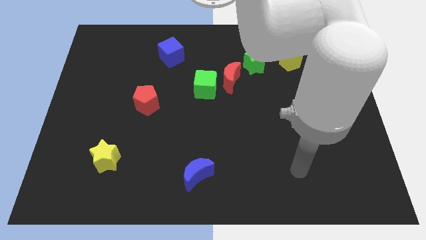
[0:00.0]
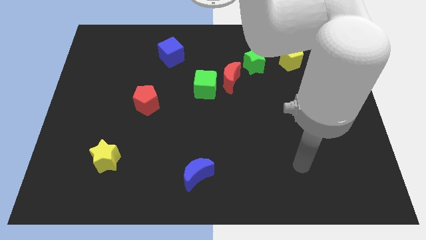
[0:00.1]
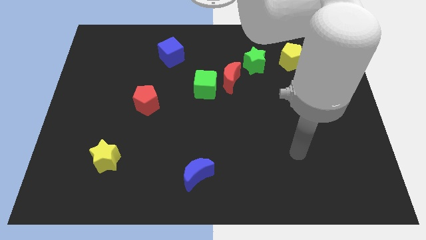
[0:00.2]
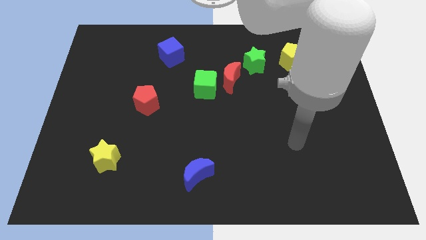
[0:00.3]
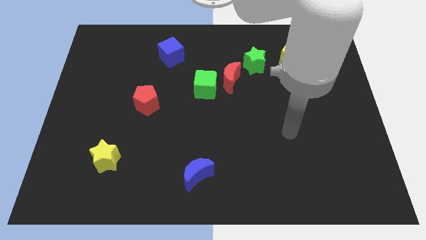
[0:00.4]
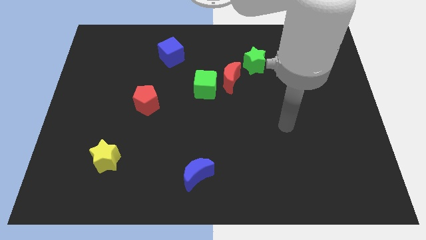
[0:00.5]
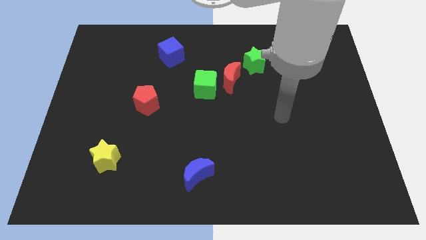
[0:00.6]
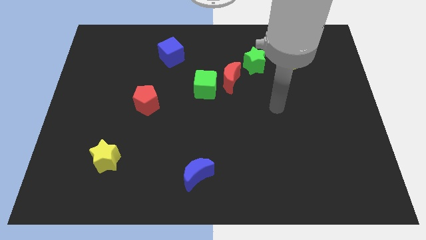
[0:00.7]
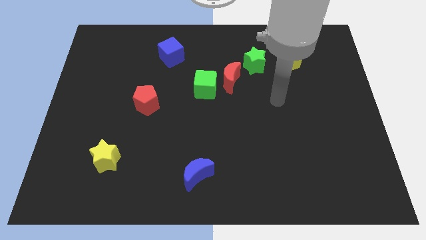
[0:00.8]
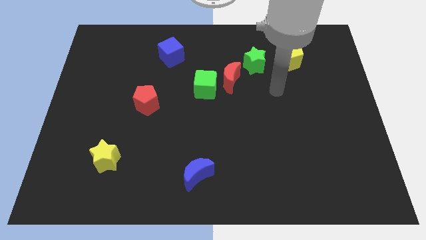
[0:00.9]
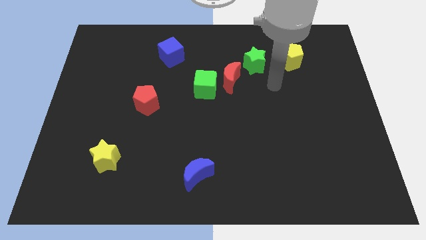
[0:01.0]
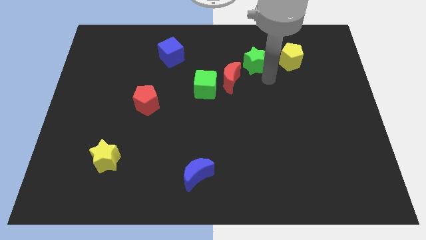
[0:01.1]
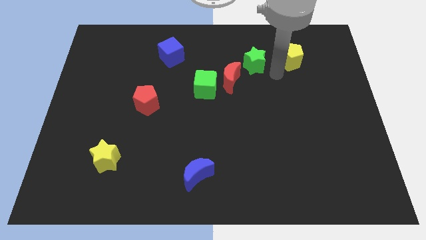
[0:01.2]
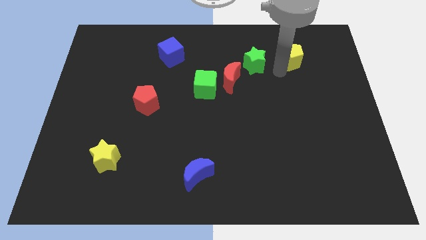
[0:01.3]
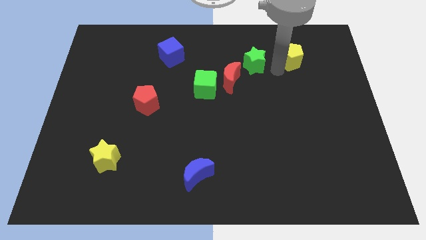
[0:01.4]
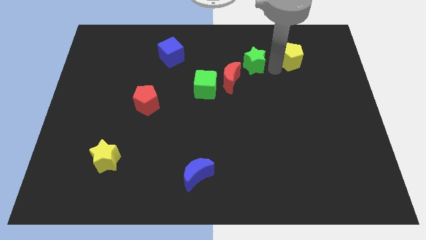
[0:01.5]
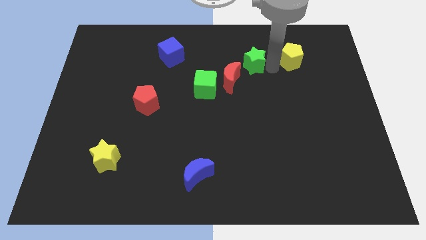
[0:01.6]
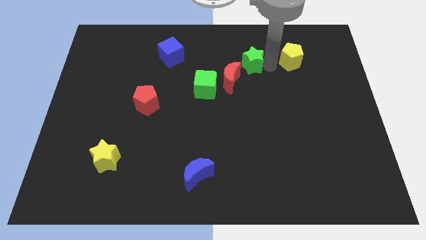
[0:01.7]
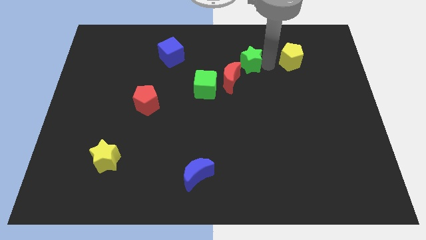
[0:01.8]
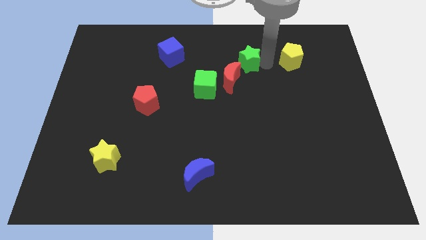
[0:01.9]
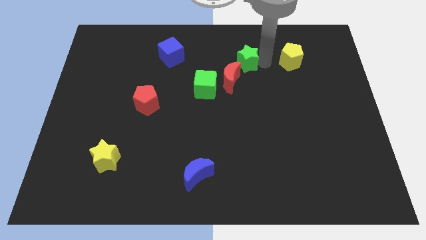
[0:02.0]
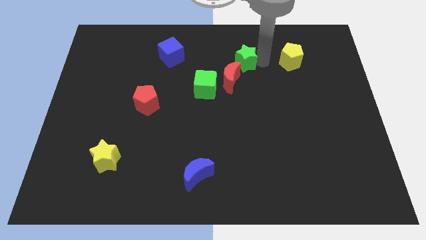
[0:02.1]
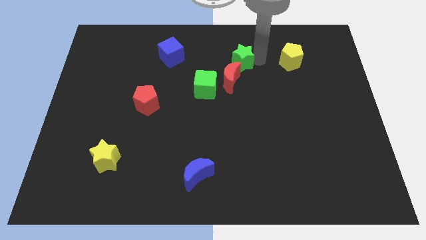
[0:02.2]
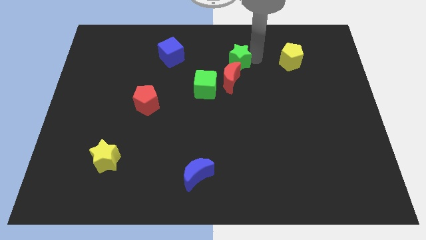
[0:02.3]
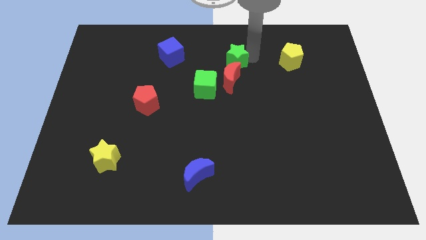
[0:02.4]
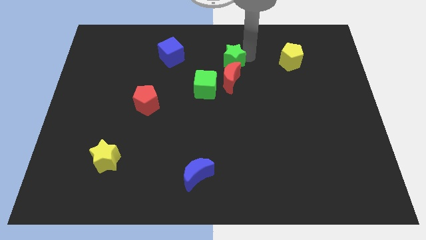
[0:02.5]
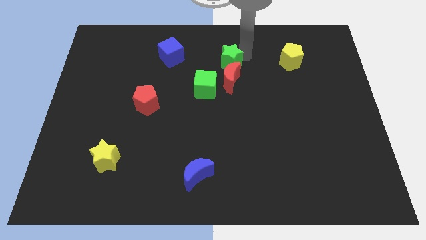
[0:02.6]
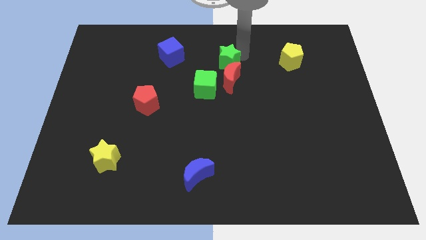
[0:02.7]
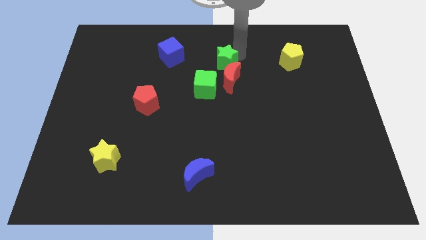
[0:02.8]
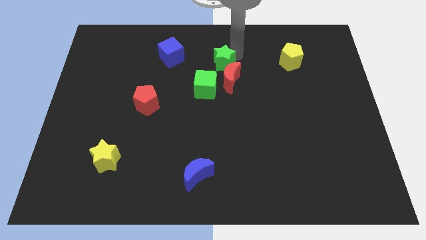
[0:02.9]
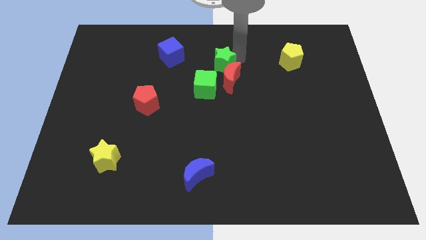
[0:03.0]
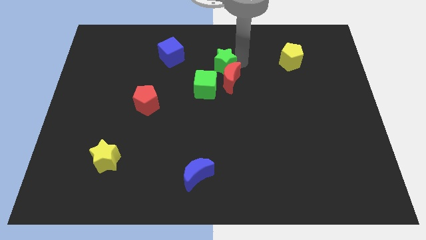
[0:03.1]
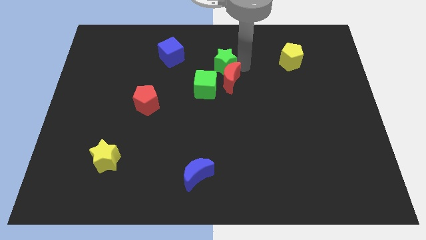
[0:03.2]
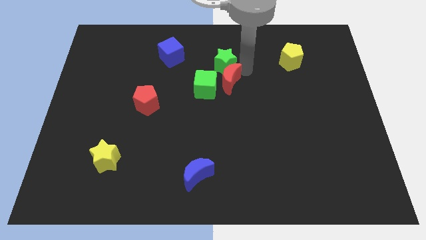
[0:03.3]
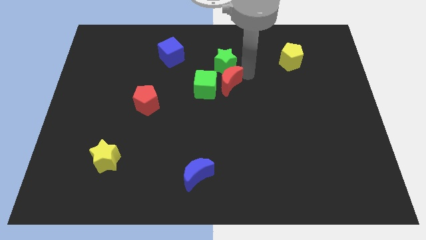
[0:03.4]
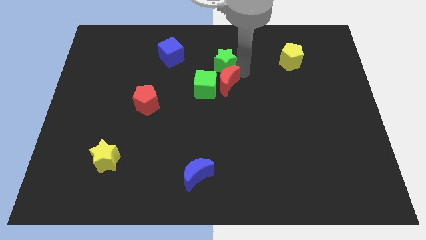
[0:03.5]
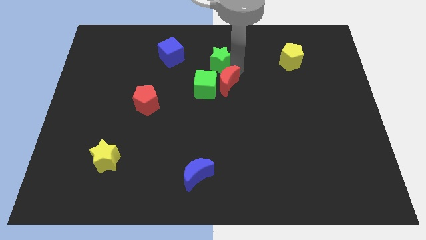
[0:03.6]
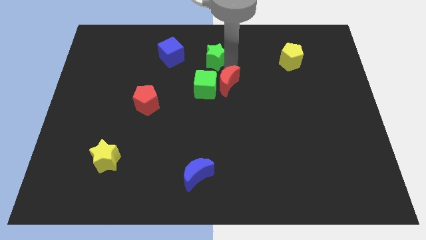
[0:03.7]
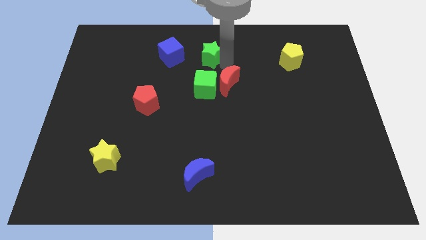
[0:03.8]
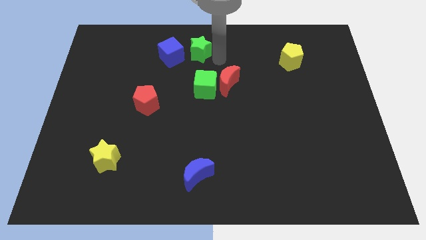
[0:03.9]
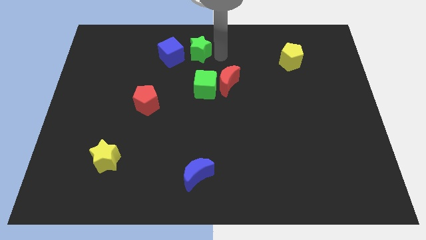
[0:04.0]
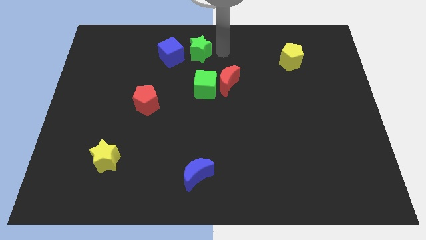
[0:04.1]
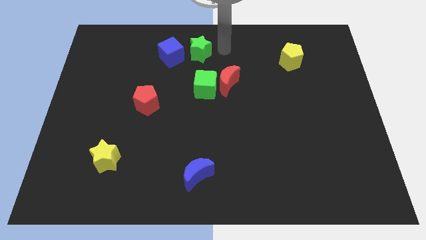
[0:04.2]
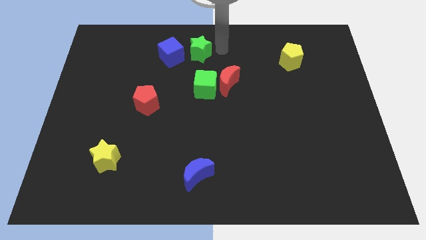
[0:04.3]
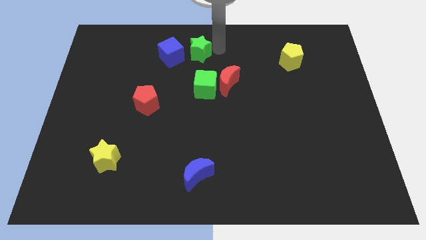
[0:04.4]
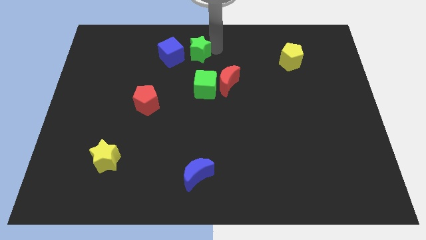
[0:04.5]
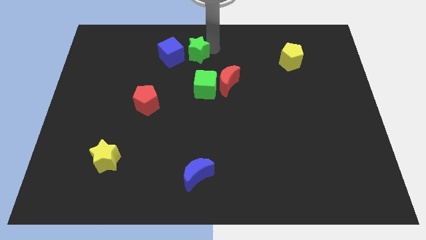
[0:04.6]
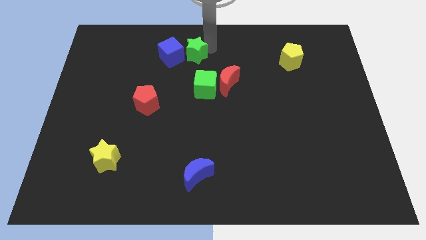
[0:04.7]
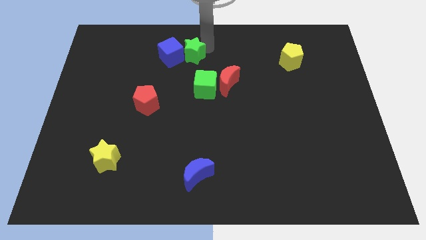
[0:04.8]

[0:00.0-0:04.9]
move the green star close to the blue cube

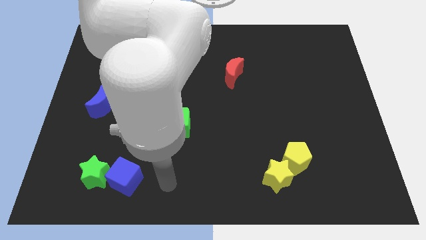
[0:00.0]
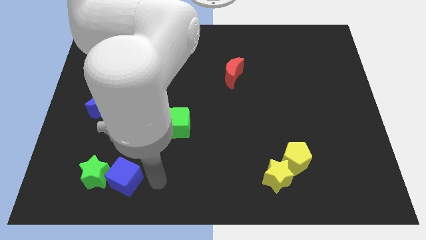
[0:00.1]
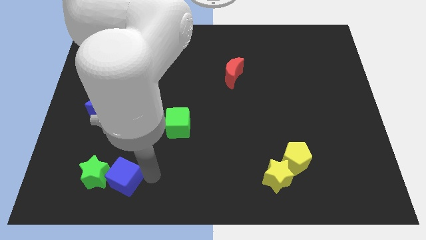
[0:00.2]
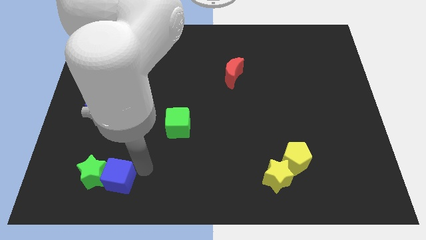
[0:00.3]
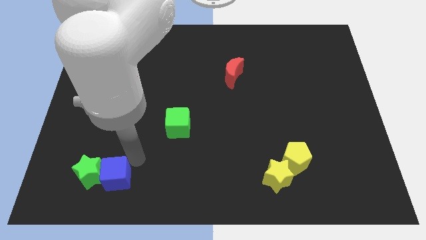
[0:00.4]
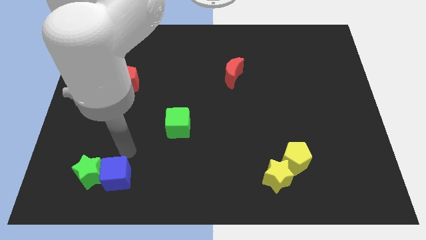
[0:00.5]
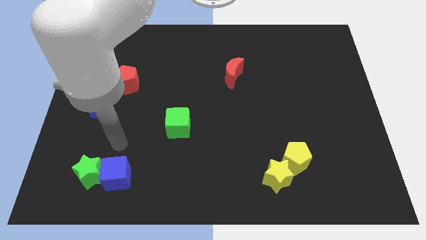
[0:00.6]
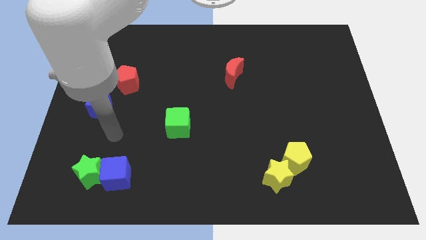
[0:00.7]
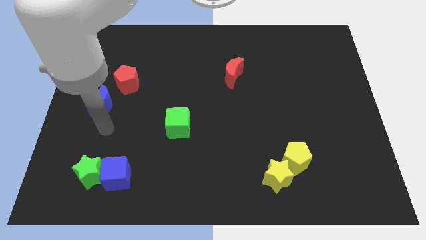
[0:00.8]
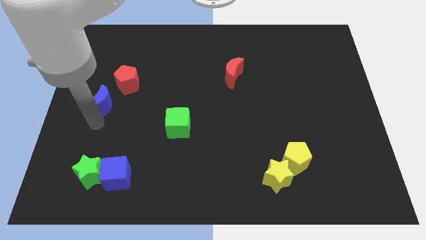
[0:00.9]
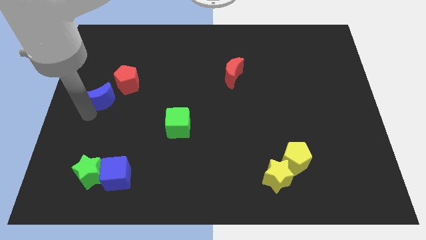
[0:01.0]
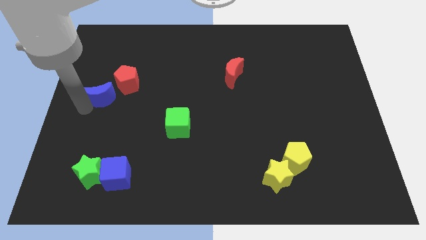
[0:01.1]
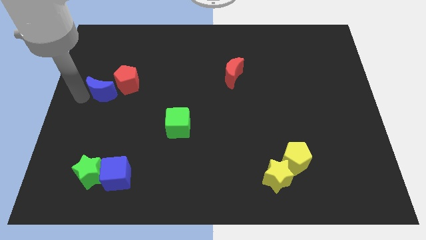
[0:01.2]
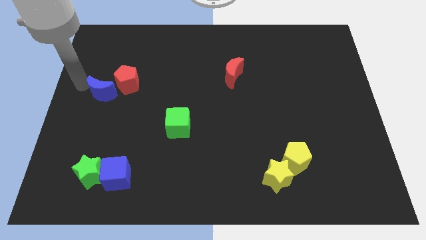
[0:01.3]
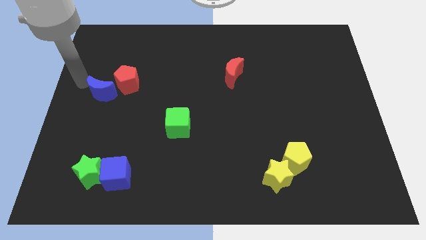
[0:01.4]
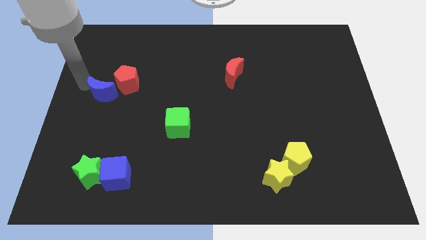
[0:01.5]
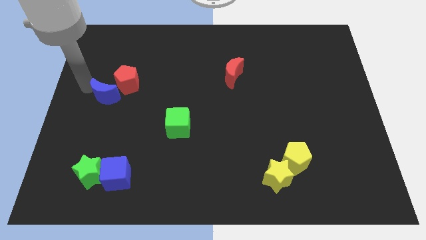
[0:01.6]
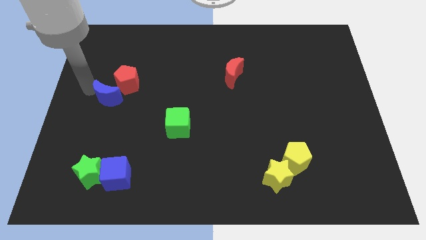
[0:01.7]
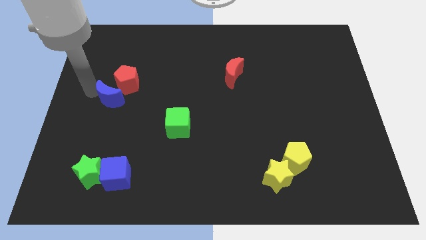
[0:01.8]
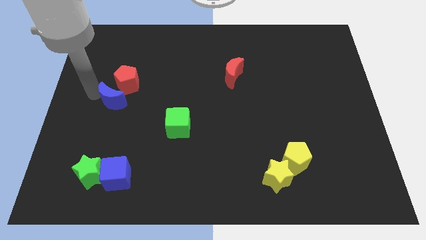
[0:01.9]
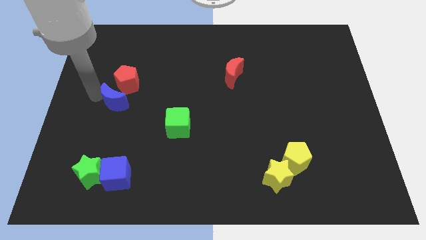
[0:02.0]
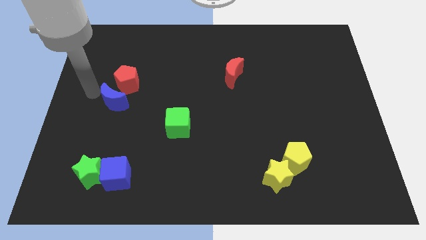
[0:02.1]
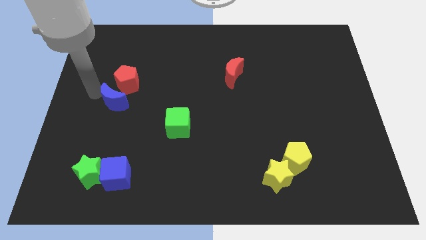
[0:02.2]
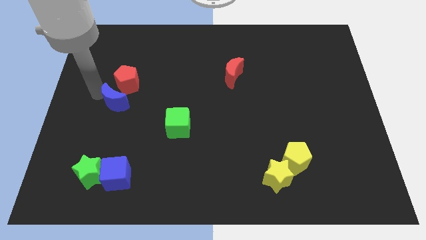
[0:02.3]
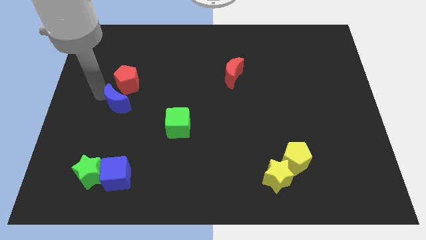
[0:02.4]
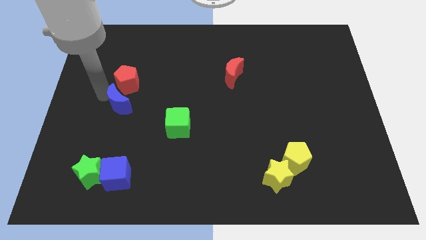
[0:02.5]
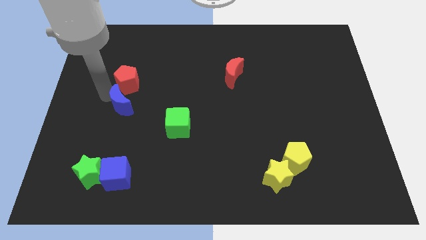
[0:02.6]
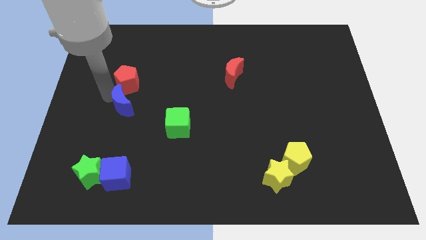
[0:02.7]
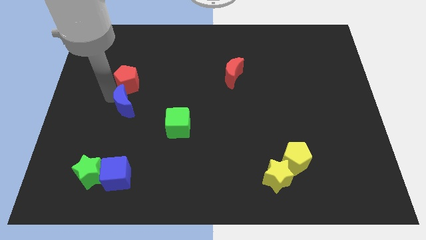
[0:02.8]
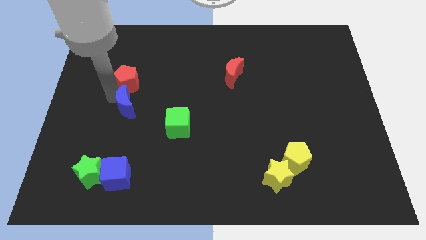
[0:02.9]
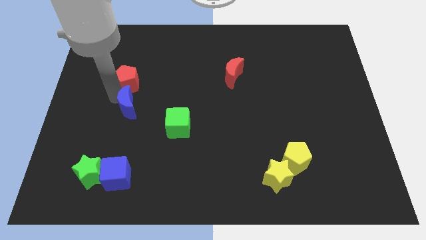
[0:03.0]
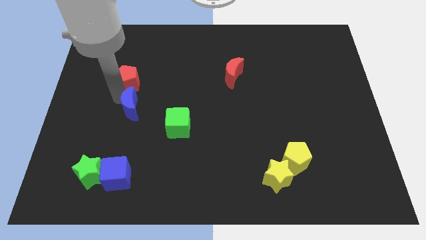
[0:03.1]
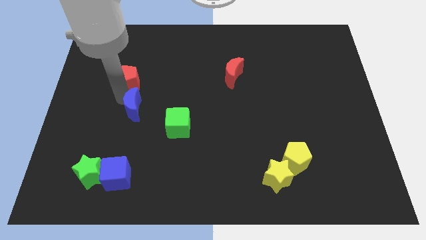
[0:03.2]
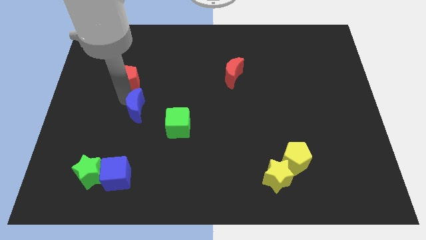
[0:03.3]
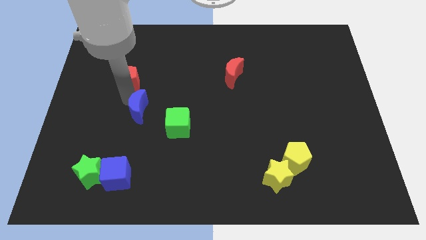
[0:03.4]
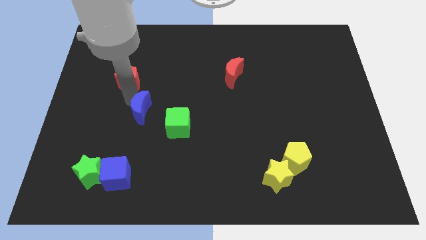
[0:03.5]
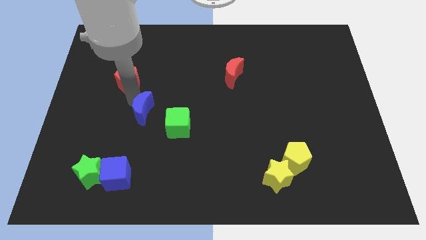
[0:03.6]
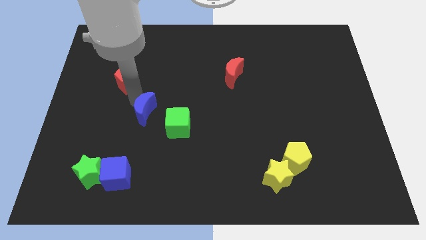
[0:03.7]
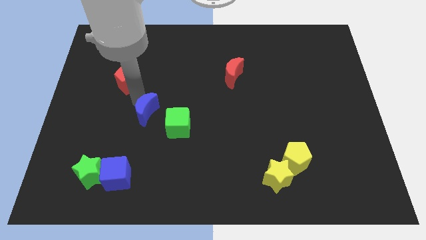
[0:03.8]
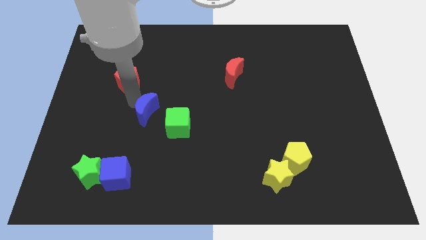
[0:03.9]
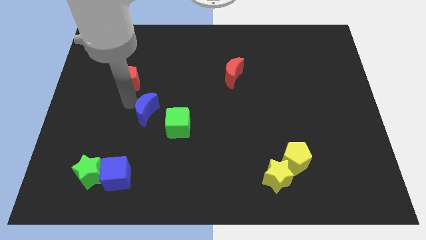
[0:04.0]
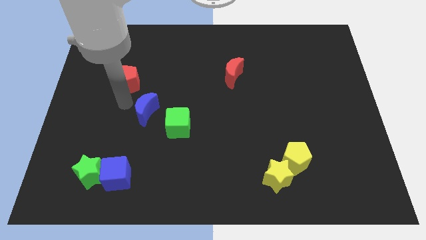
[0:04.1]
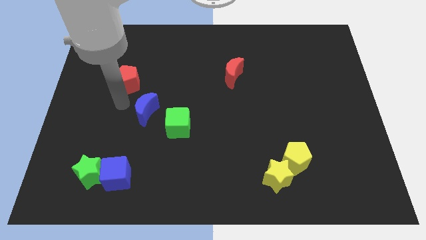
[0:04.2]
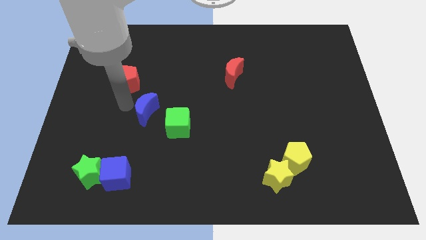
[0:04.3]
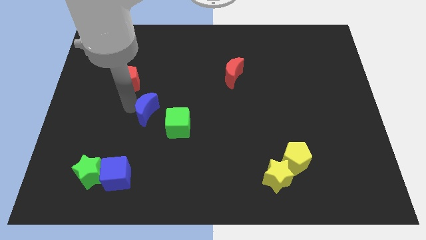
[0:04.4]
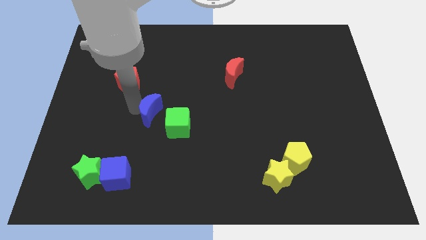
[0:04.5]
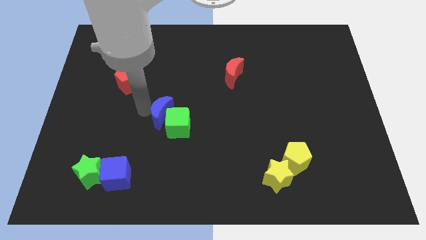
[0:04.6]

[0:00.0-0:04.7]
move the blue moon to the green cube
